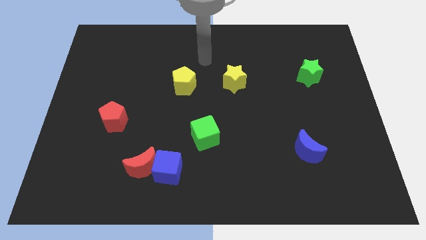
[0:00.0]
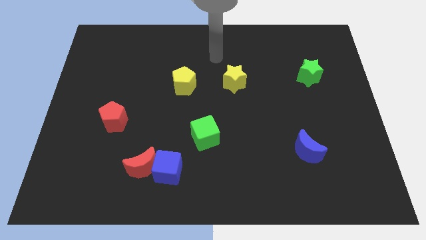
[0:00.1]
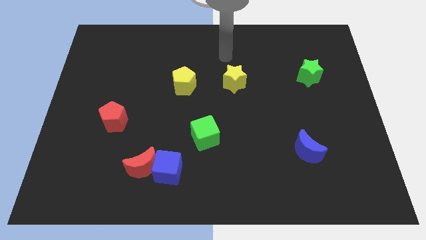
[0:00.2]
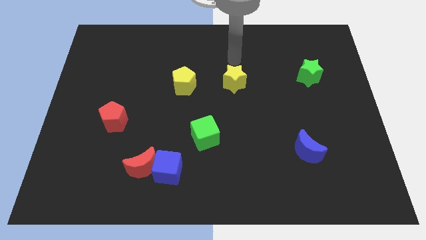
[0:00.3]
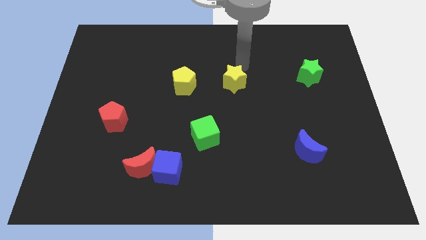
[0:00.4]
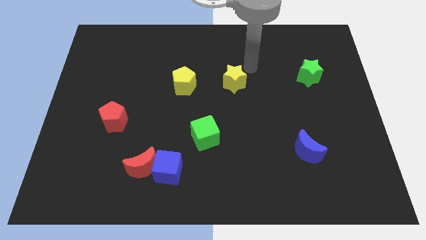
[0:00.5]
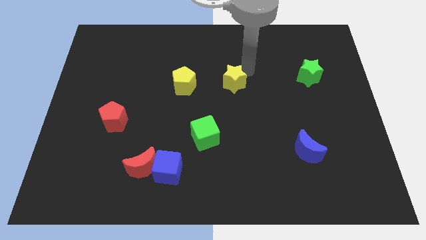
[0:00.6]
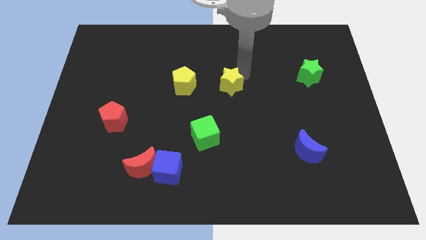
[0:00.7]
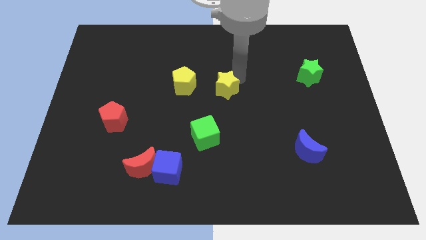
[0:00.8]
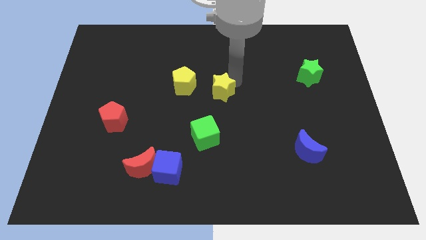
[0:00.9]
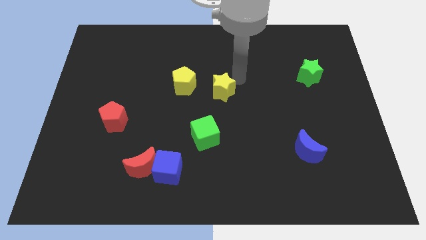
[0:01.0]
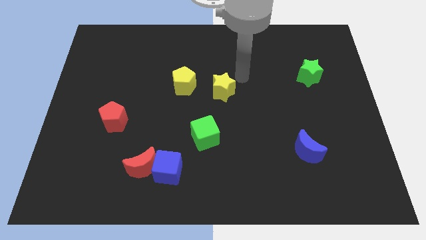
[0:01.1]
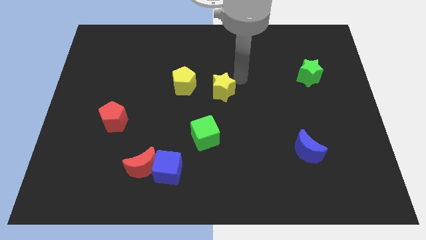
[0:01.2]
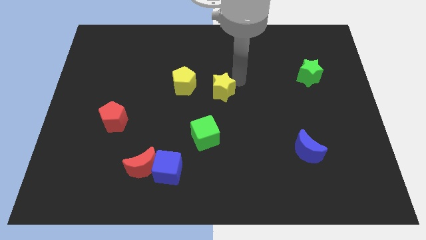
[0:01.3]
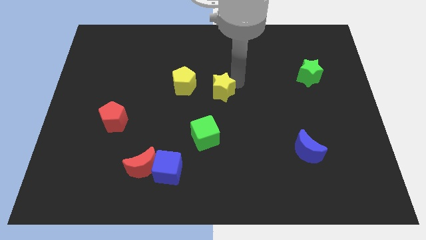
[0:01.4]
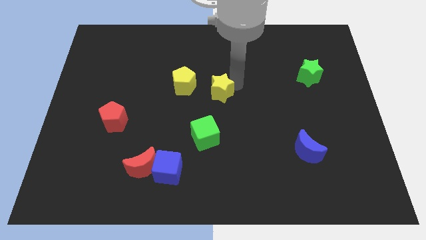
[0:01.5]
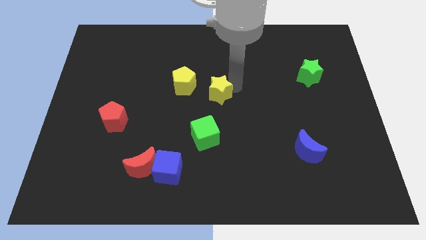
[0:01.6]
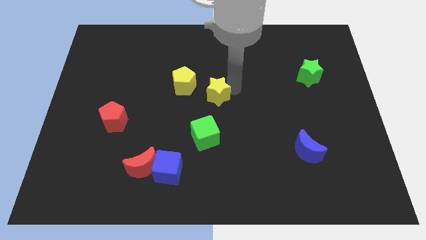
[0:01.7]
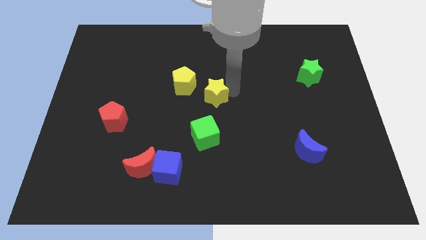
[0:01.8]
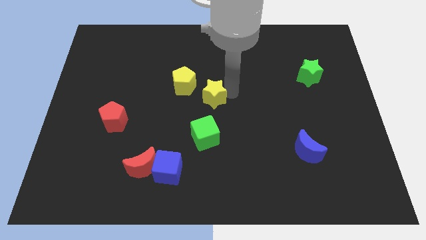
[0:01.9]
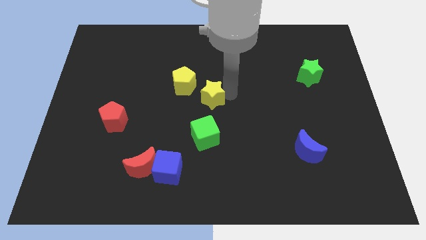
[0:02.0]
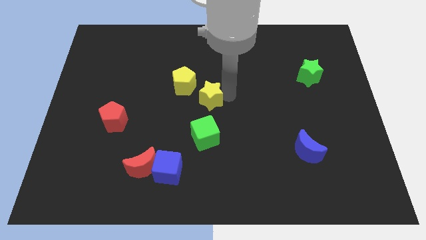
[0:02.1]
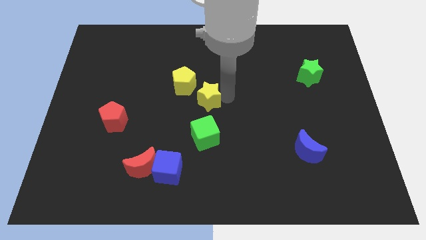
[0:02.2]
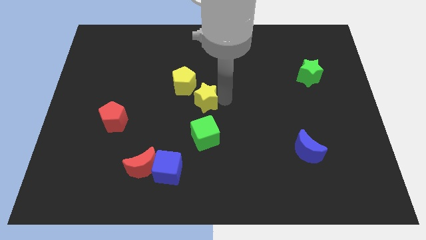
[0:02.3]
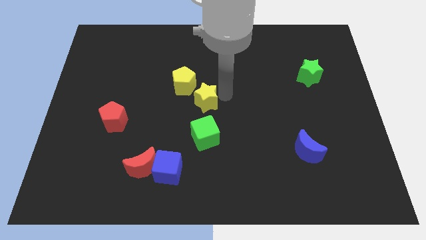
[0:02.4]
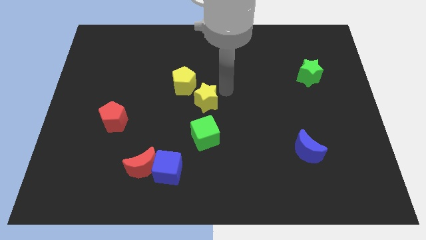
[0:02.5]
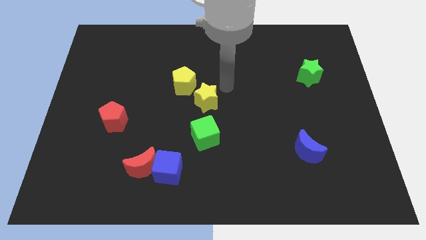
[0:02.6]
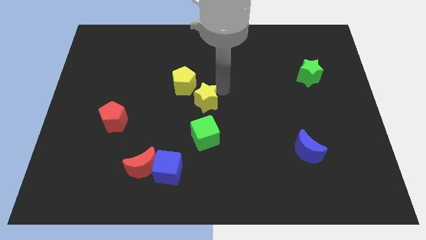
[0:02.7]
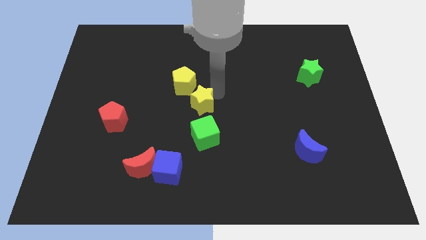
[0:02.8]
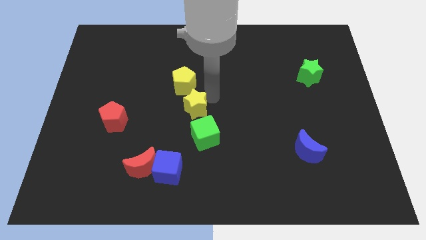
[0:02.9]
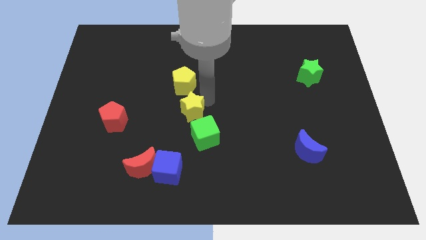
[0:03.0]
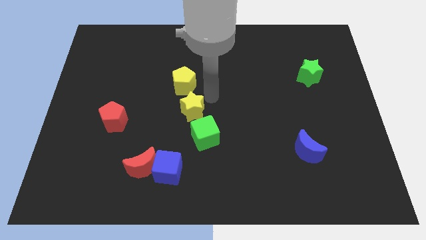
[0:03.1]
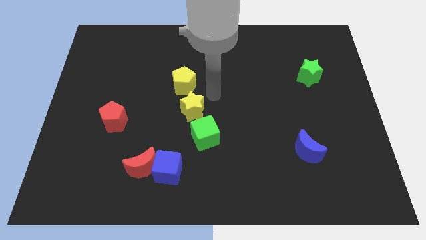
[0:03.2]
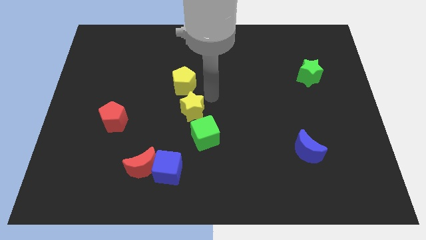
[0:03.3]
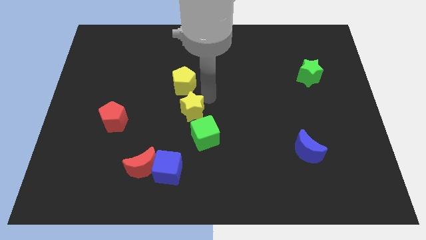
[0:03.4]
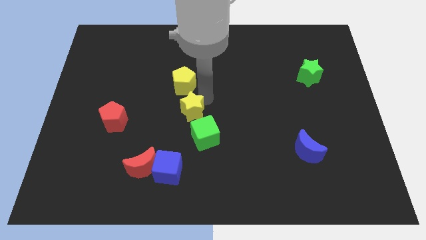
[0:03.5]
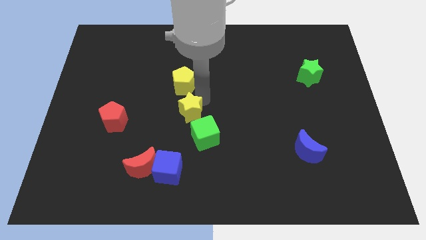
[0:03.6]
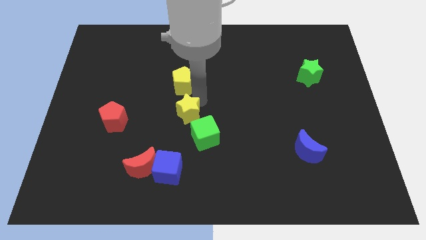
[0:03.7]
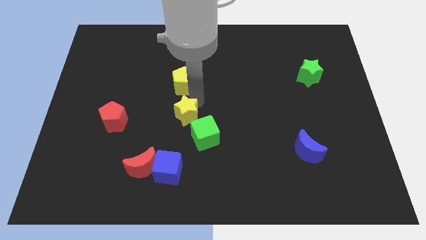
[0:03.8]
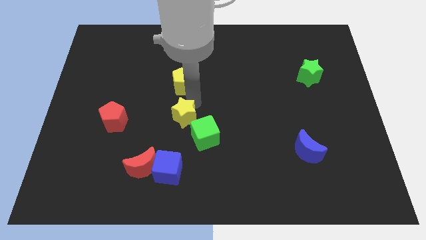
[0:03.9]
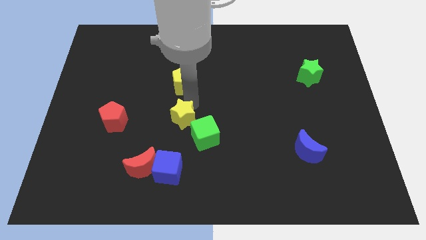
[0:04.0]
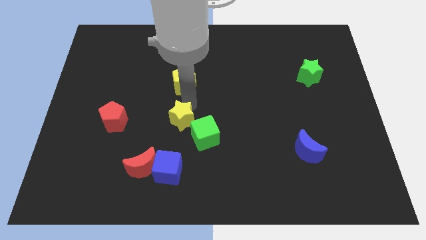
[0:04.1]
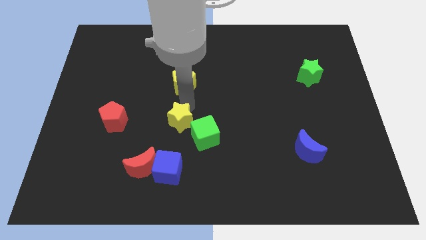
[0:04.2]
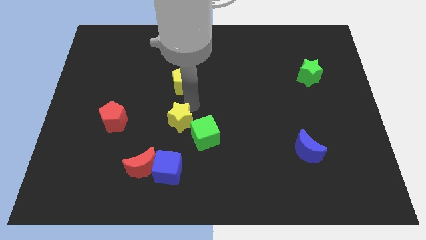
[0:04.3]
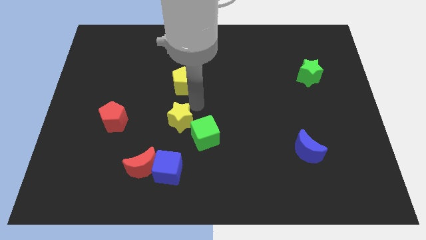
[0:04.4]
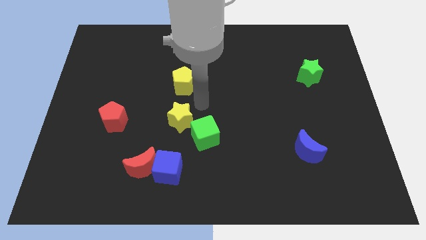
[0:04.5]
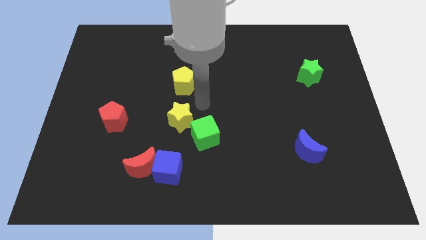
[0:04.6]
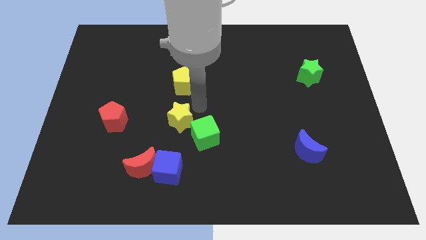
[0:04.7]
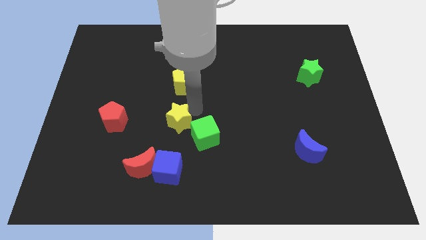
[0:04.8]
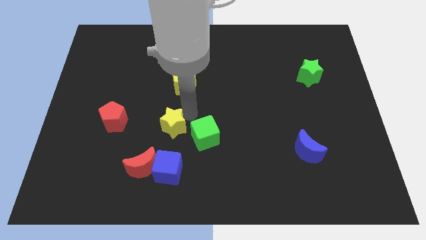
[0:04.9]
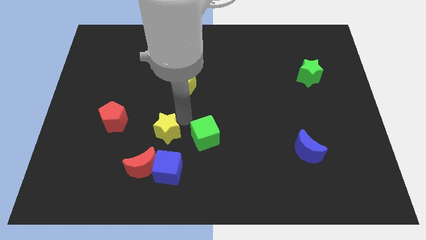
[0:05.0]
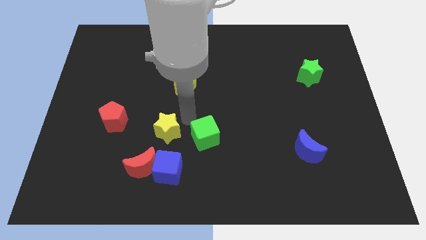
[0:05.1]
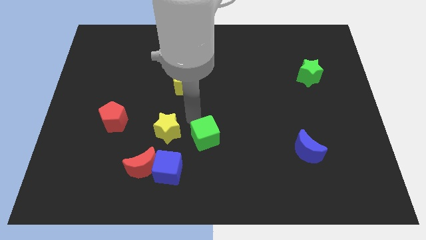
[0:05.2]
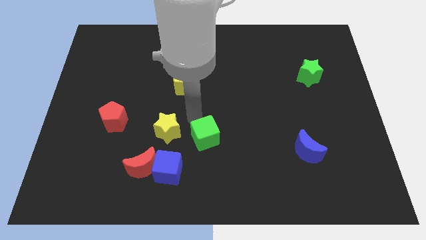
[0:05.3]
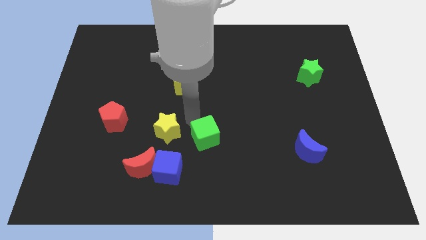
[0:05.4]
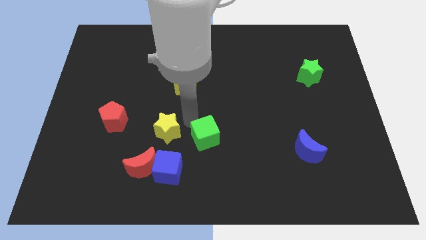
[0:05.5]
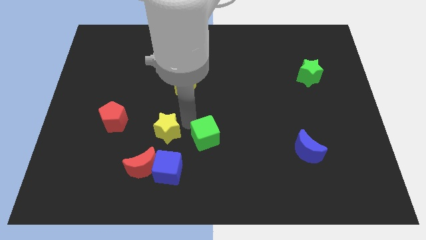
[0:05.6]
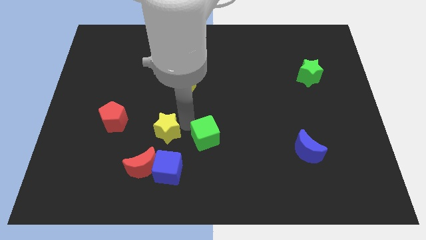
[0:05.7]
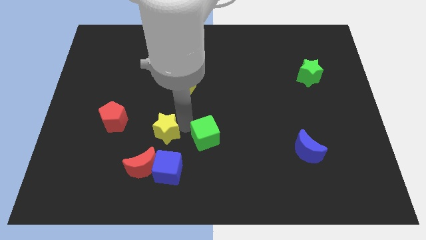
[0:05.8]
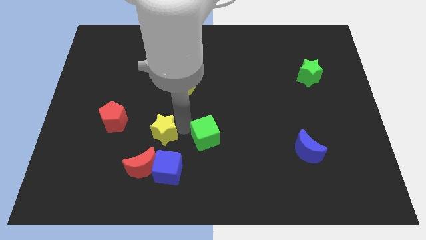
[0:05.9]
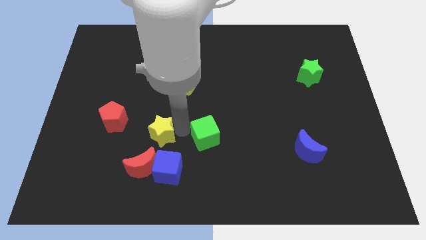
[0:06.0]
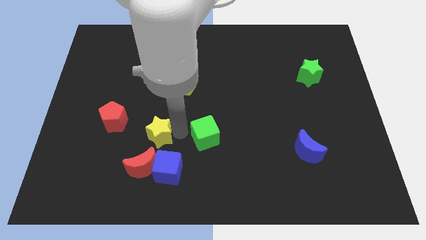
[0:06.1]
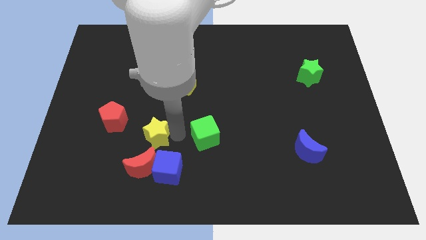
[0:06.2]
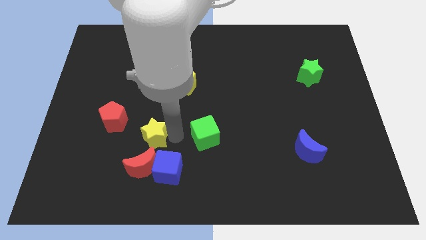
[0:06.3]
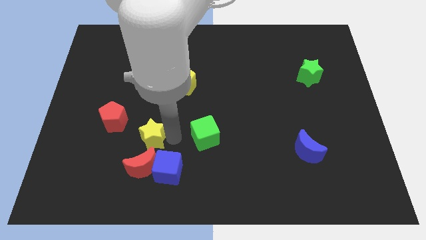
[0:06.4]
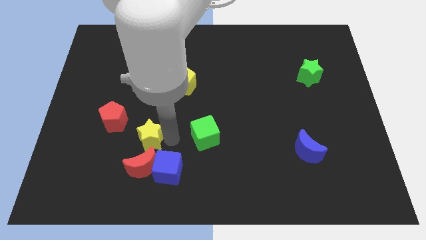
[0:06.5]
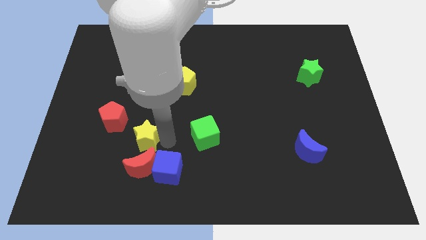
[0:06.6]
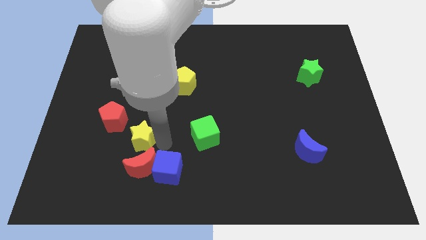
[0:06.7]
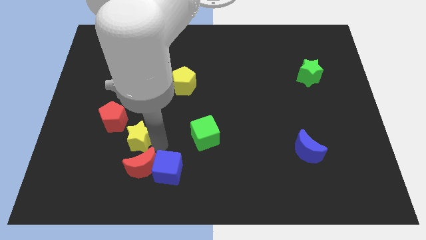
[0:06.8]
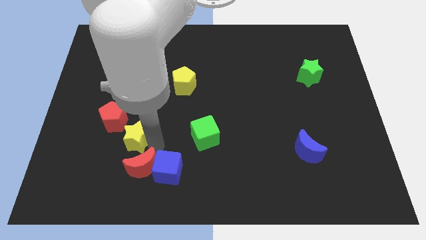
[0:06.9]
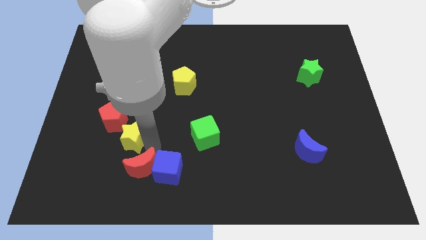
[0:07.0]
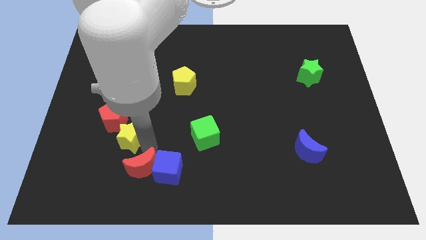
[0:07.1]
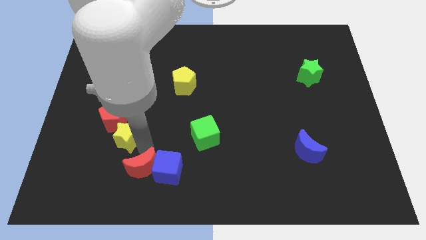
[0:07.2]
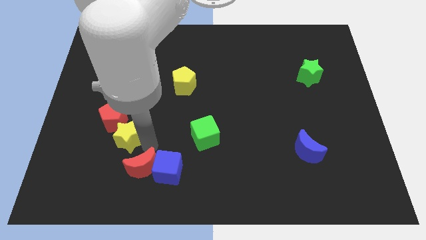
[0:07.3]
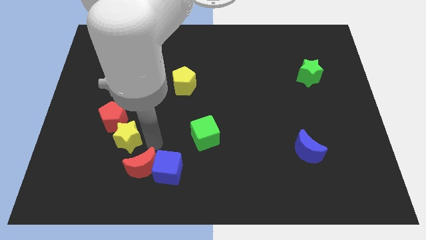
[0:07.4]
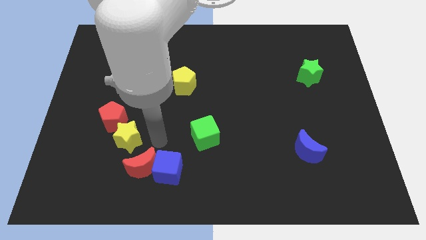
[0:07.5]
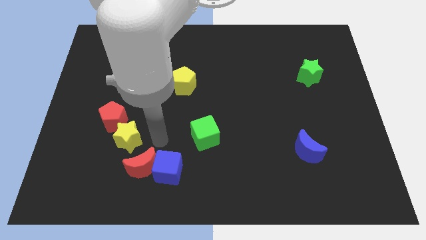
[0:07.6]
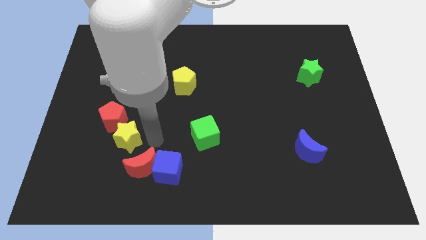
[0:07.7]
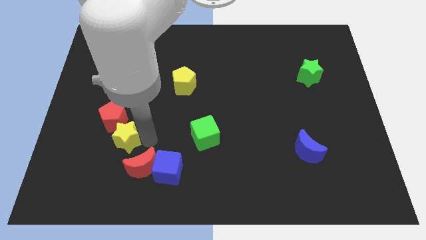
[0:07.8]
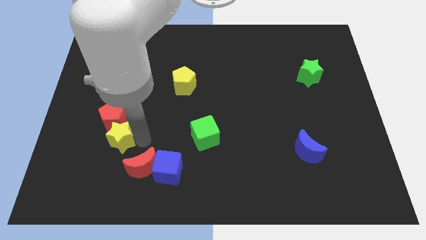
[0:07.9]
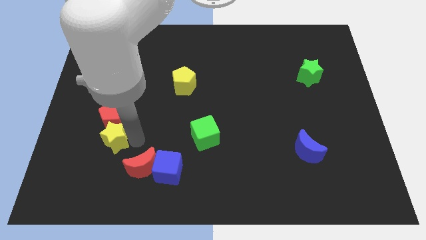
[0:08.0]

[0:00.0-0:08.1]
slide the yellow star to the bottom left of the red pentagon
